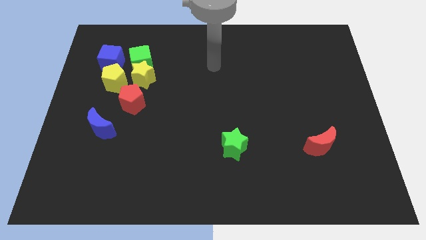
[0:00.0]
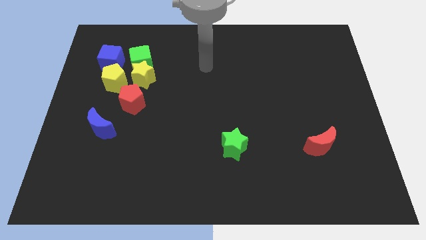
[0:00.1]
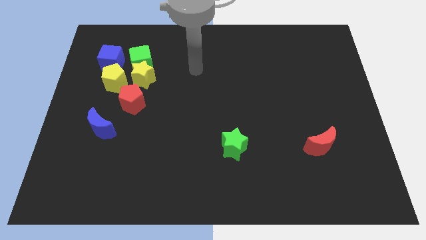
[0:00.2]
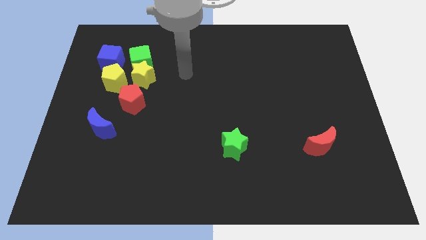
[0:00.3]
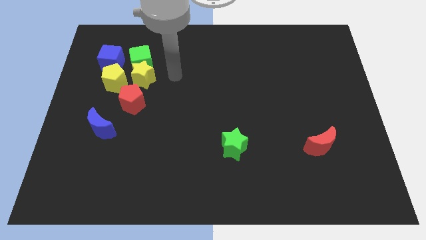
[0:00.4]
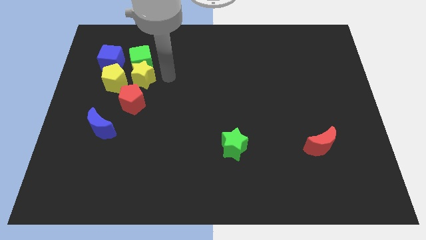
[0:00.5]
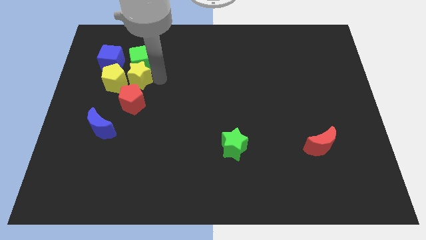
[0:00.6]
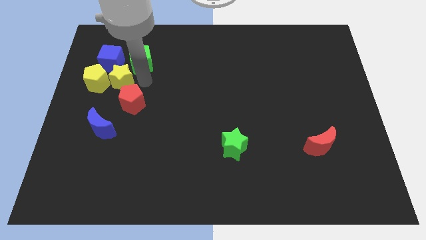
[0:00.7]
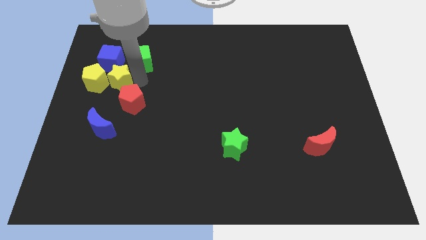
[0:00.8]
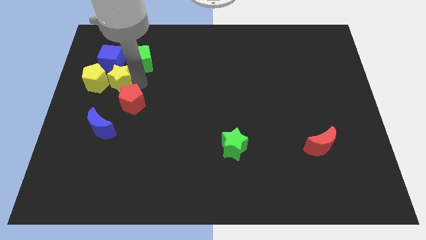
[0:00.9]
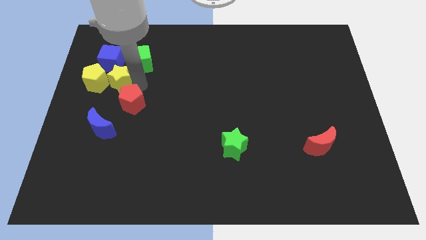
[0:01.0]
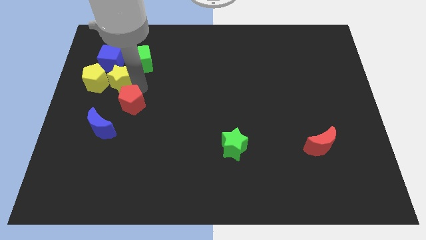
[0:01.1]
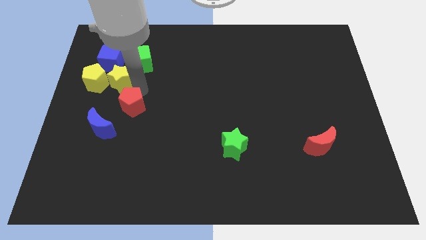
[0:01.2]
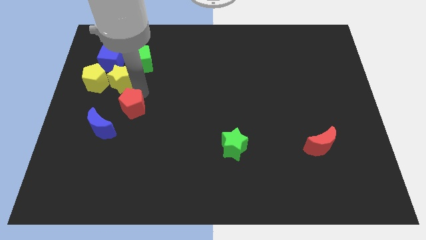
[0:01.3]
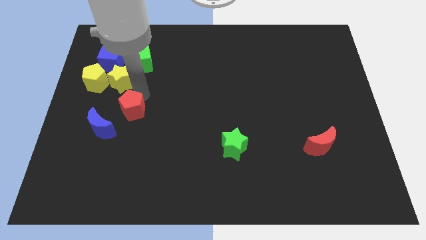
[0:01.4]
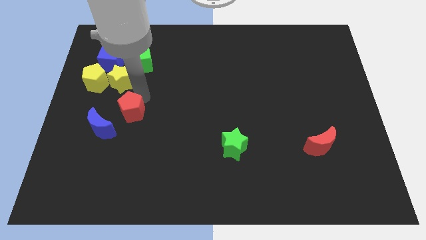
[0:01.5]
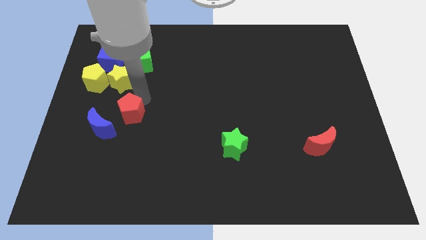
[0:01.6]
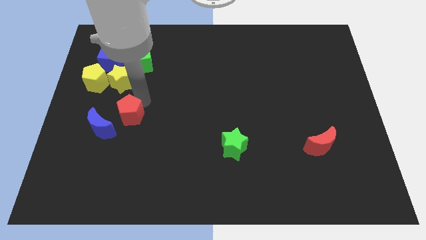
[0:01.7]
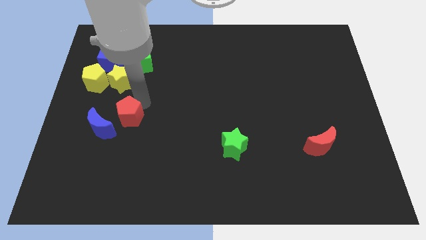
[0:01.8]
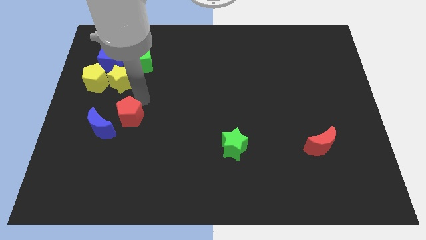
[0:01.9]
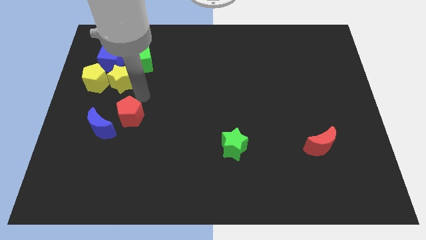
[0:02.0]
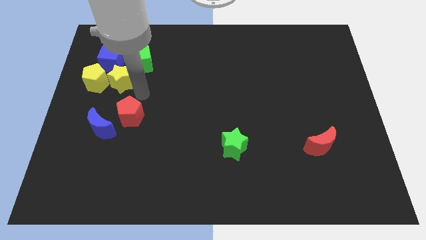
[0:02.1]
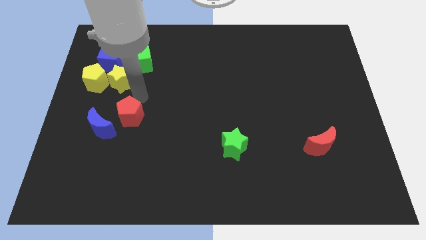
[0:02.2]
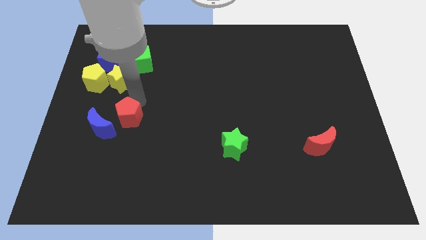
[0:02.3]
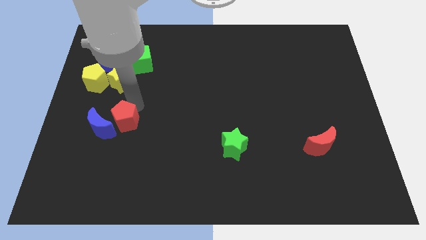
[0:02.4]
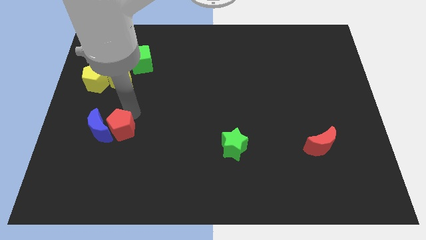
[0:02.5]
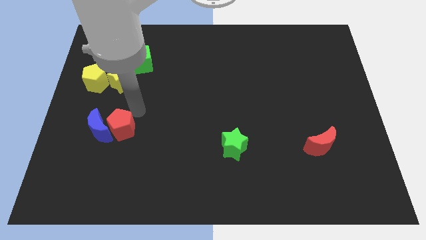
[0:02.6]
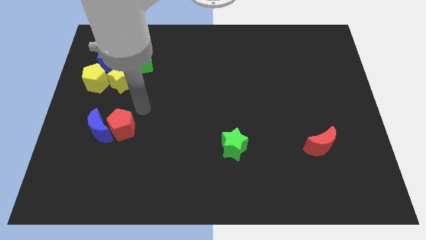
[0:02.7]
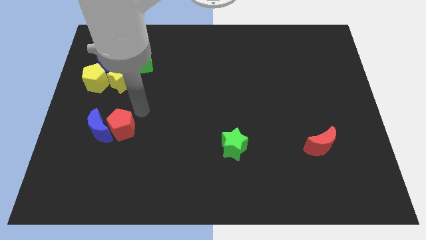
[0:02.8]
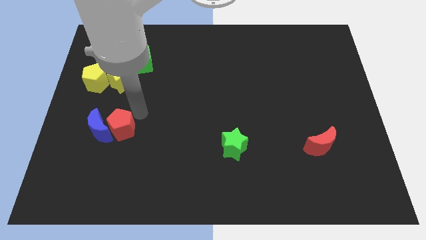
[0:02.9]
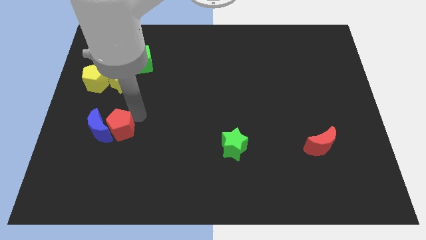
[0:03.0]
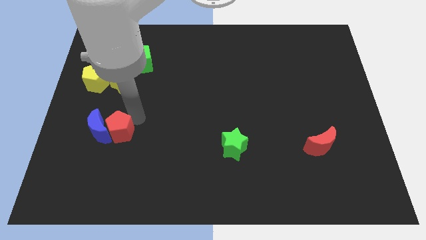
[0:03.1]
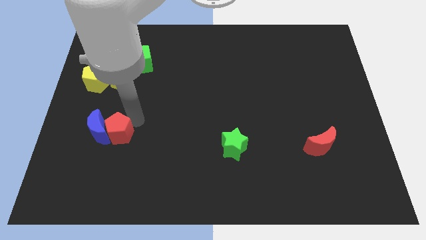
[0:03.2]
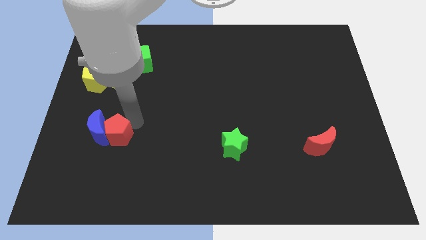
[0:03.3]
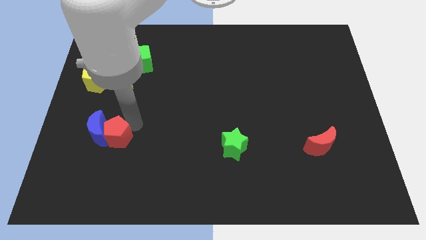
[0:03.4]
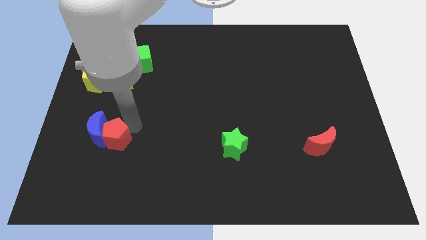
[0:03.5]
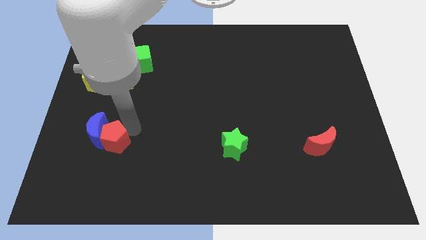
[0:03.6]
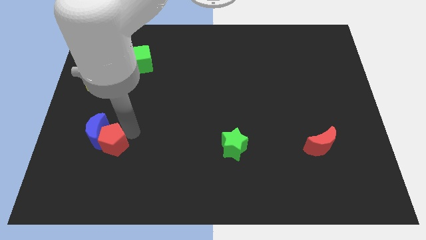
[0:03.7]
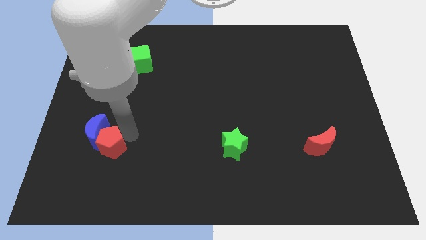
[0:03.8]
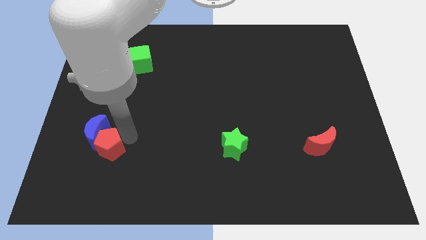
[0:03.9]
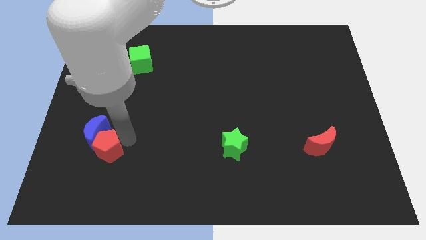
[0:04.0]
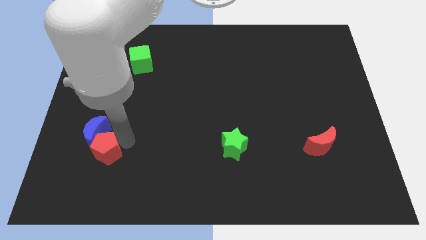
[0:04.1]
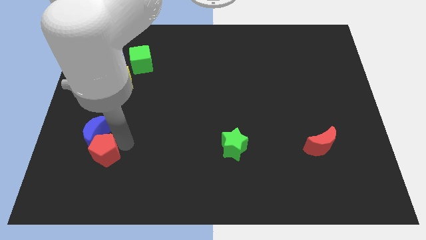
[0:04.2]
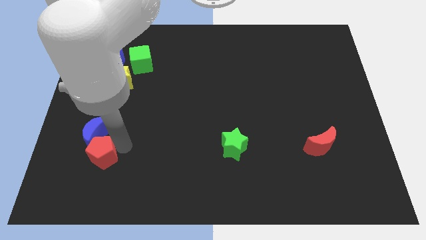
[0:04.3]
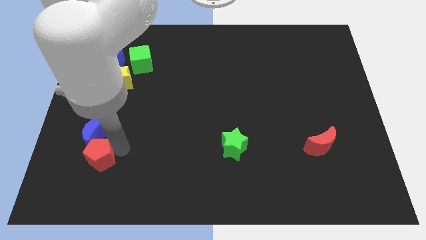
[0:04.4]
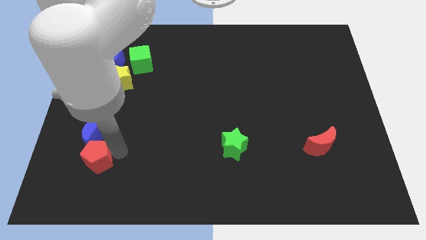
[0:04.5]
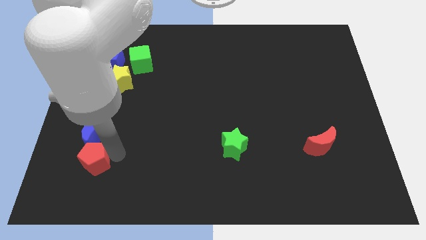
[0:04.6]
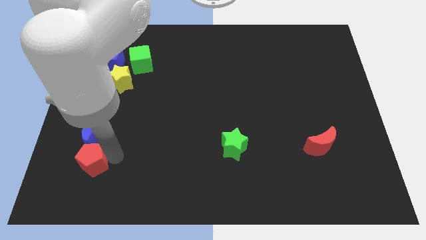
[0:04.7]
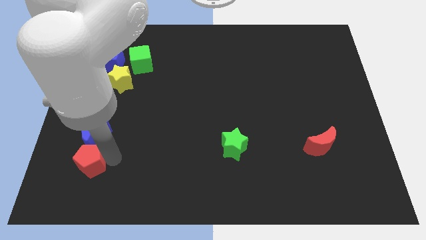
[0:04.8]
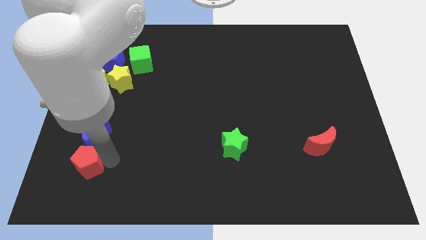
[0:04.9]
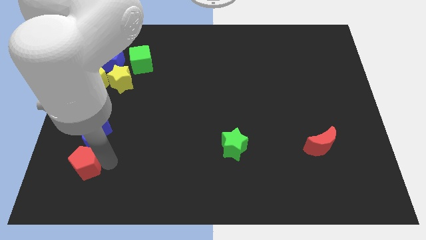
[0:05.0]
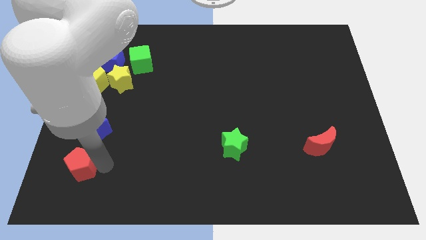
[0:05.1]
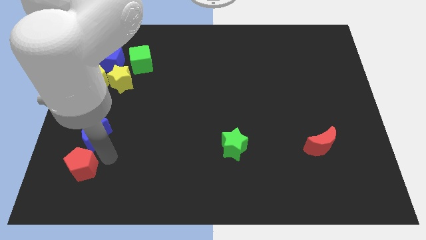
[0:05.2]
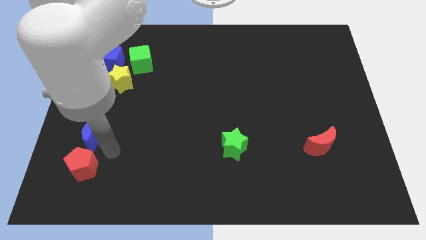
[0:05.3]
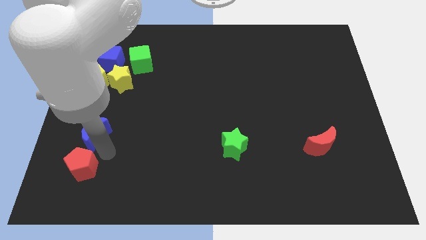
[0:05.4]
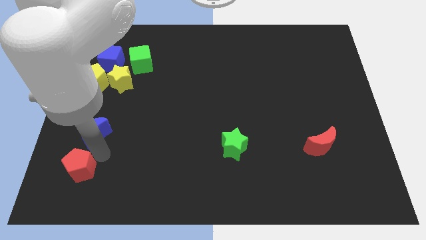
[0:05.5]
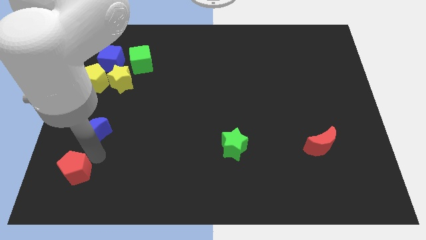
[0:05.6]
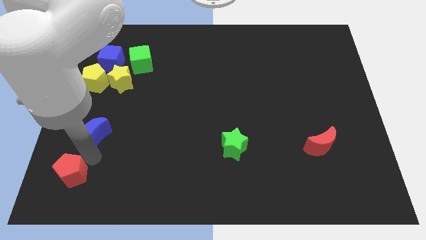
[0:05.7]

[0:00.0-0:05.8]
put the red pentagon to the lower left corner
